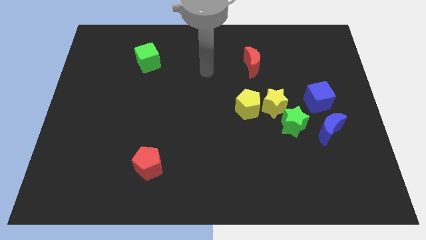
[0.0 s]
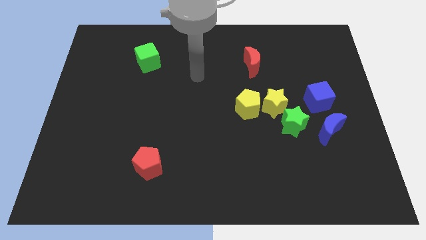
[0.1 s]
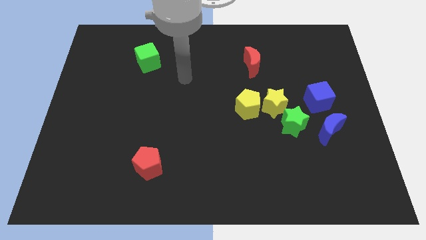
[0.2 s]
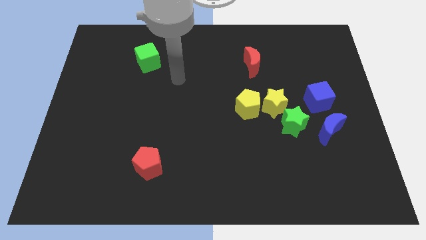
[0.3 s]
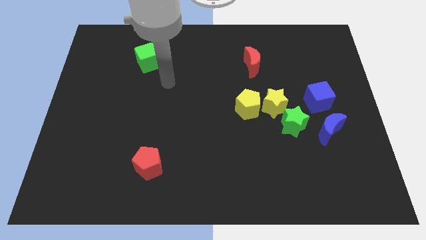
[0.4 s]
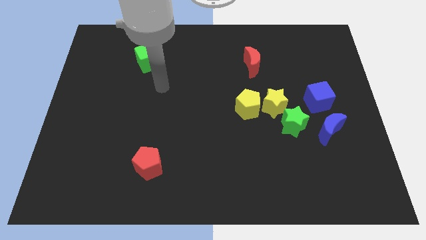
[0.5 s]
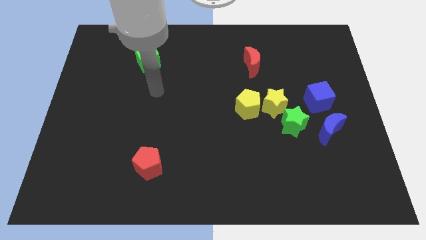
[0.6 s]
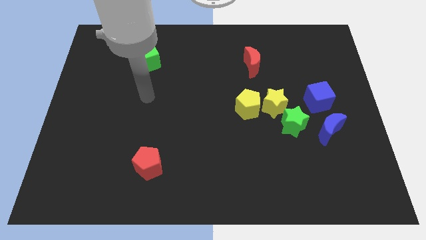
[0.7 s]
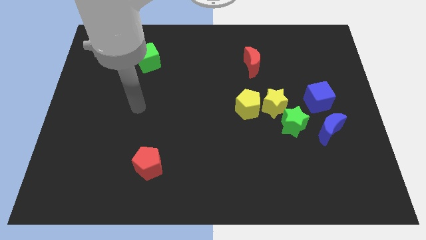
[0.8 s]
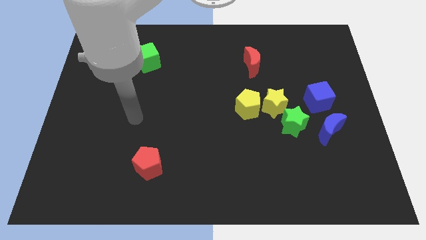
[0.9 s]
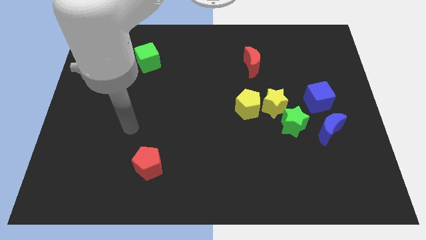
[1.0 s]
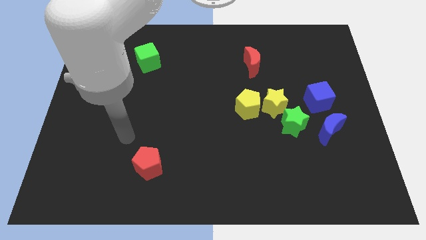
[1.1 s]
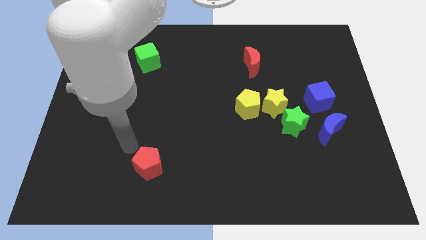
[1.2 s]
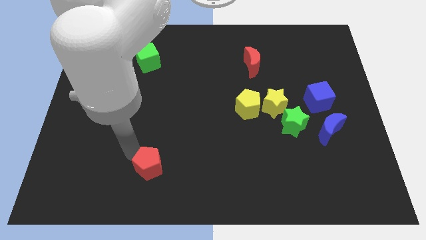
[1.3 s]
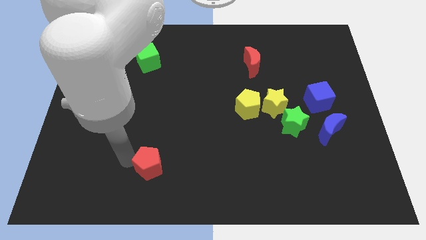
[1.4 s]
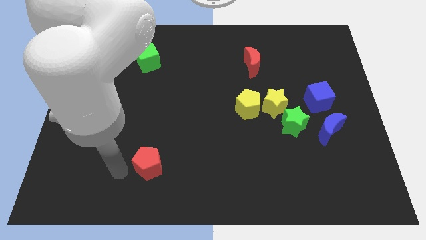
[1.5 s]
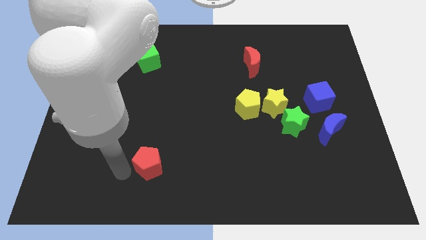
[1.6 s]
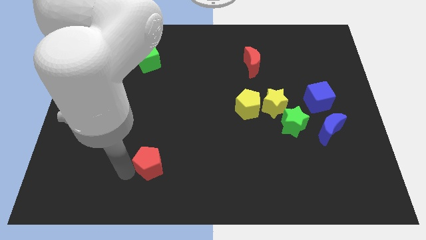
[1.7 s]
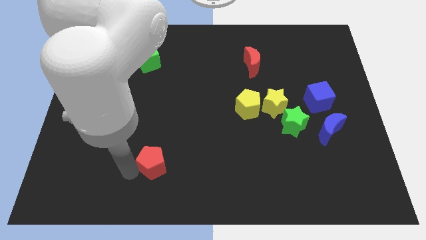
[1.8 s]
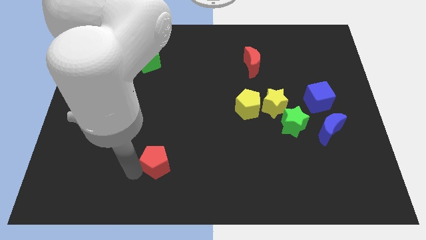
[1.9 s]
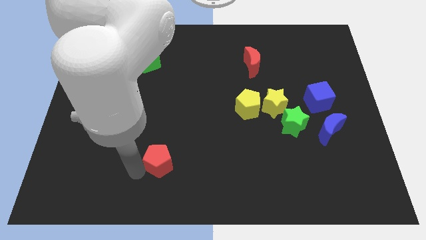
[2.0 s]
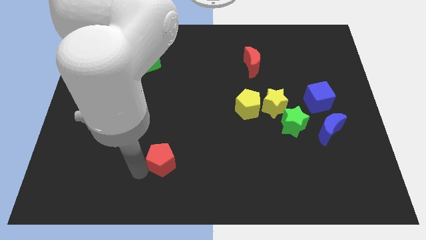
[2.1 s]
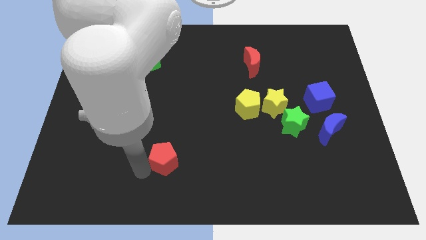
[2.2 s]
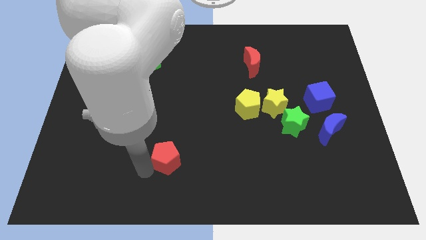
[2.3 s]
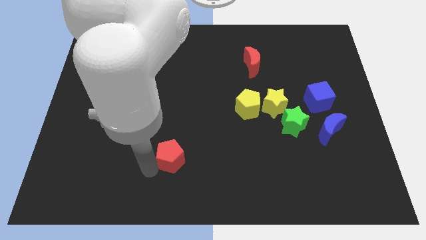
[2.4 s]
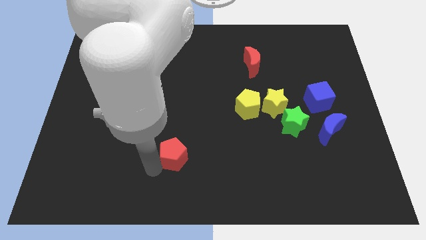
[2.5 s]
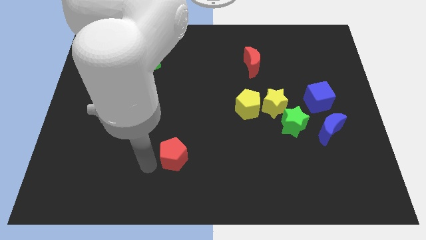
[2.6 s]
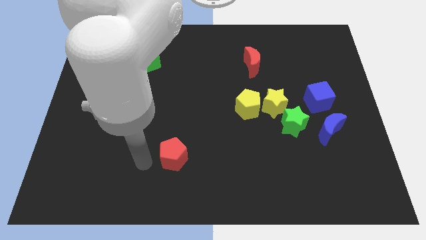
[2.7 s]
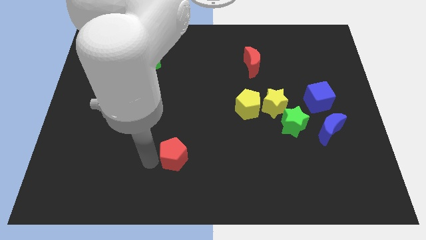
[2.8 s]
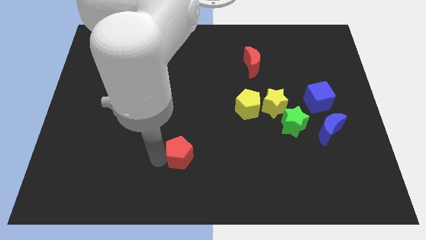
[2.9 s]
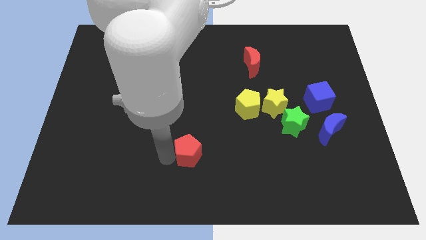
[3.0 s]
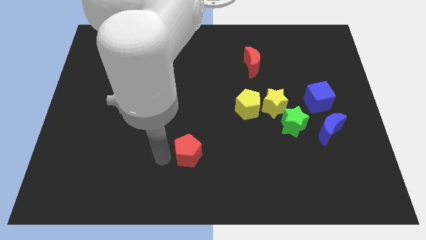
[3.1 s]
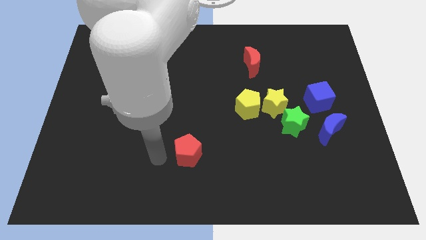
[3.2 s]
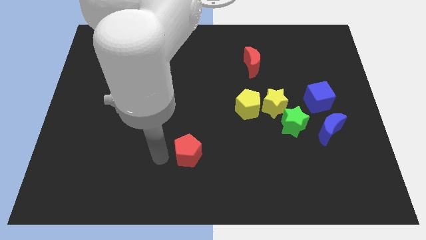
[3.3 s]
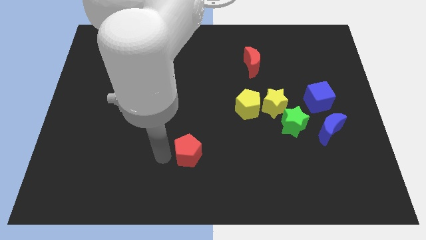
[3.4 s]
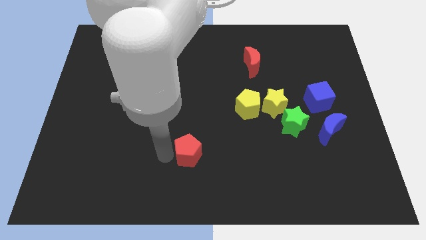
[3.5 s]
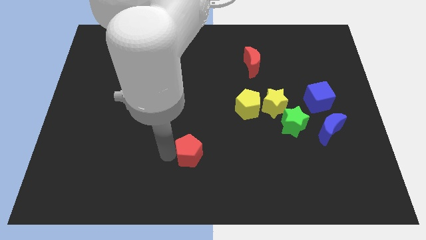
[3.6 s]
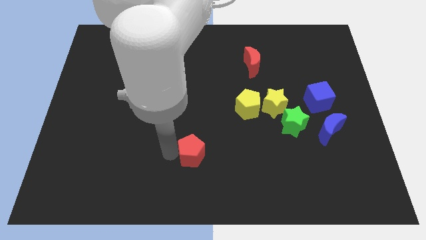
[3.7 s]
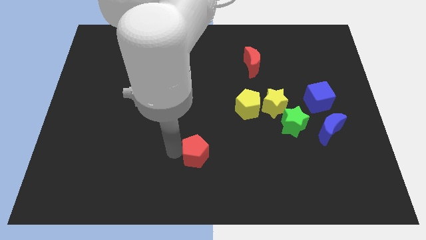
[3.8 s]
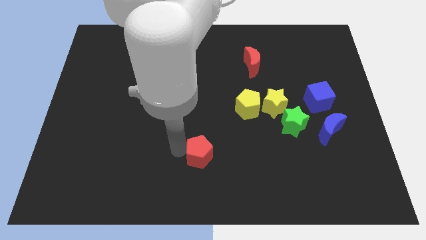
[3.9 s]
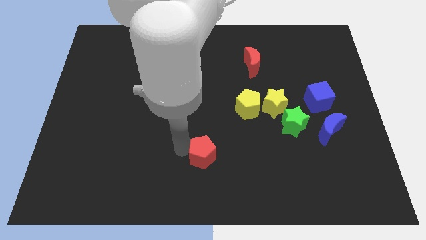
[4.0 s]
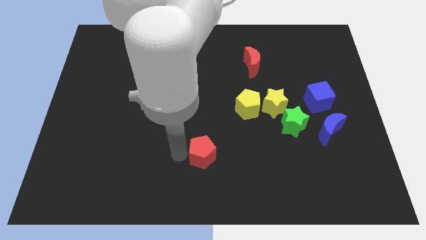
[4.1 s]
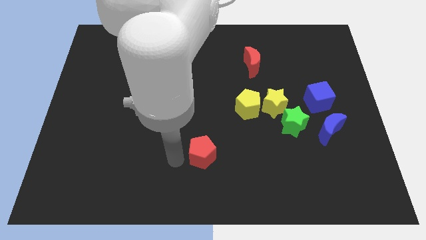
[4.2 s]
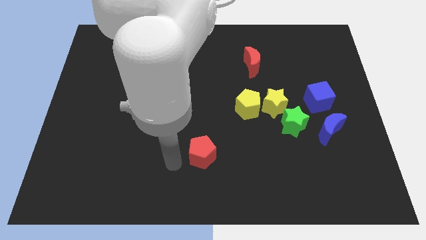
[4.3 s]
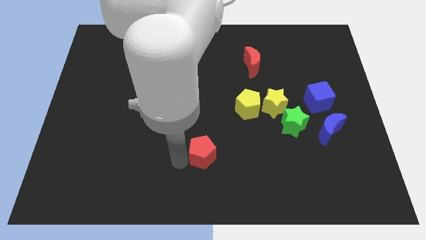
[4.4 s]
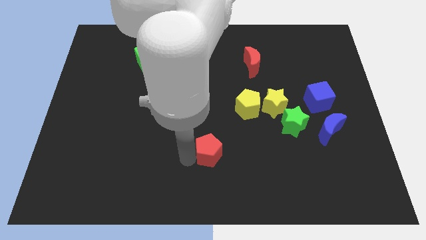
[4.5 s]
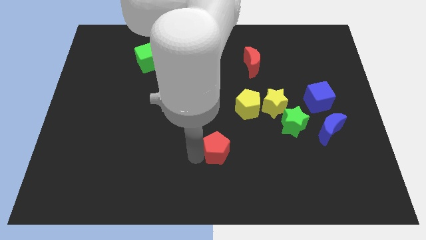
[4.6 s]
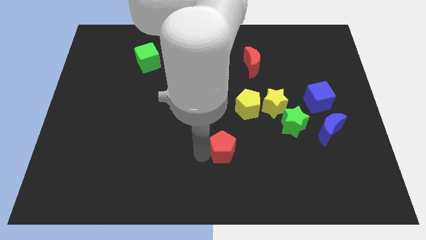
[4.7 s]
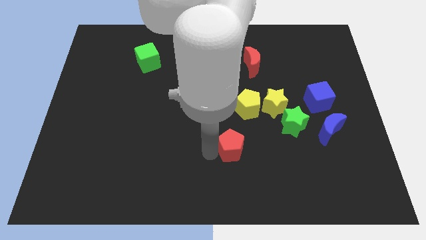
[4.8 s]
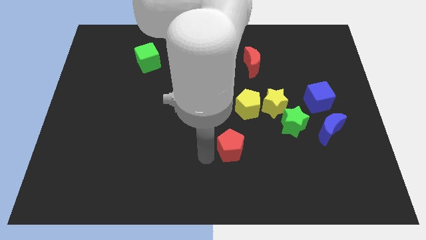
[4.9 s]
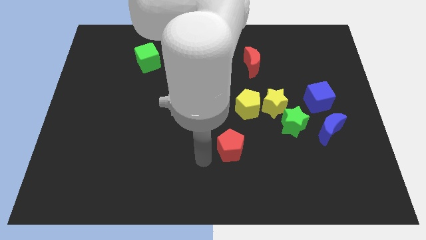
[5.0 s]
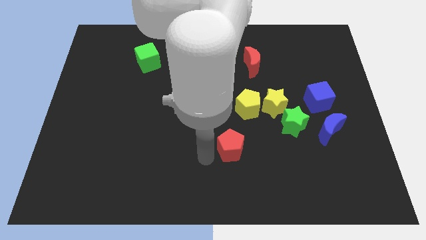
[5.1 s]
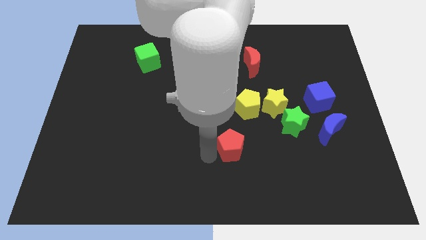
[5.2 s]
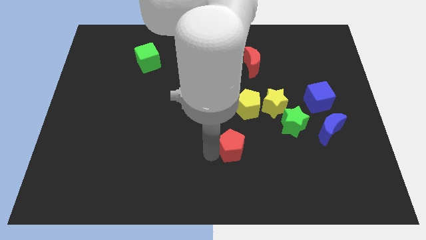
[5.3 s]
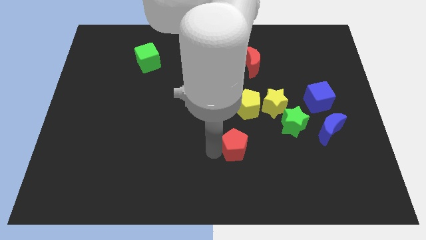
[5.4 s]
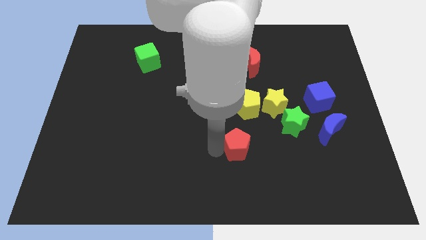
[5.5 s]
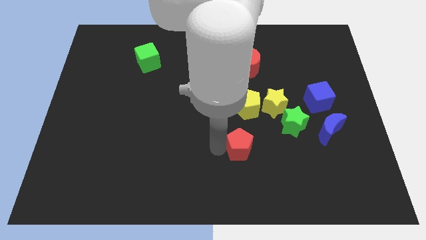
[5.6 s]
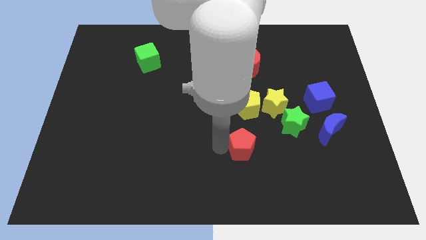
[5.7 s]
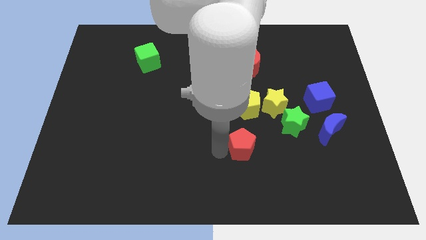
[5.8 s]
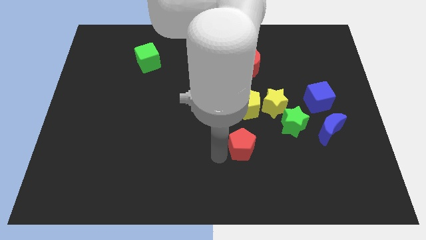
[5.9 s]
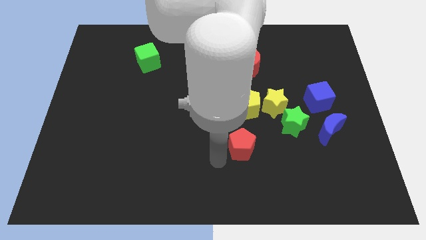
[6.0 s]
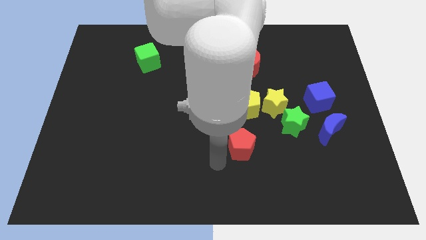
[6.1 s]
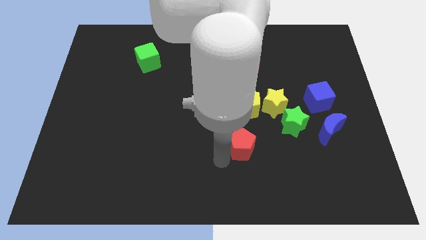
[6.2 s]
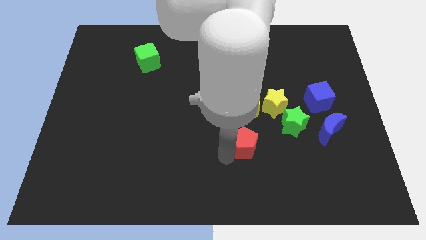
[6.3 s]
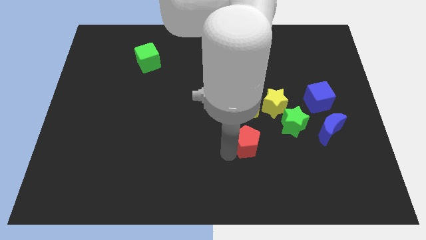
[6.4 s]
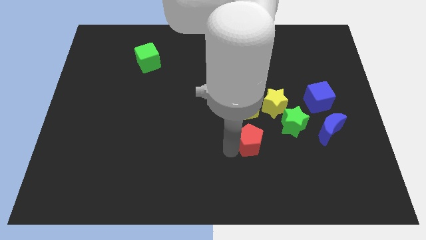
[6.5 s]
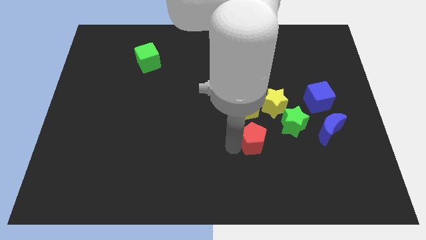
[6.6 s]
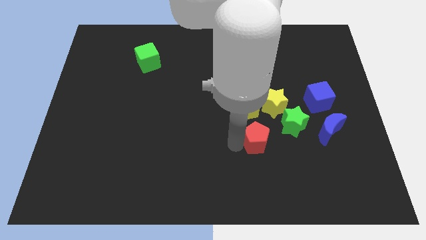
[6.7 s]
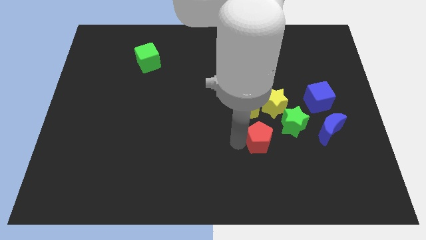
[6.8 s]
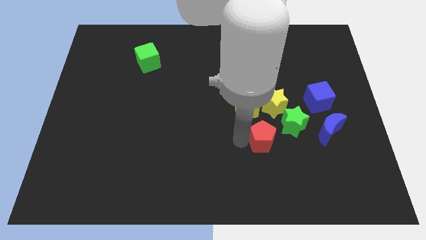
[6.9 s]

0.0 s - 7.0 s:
put the red pentagon to the left of the blue moon

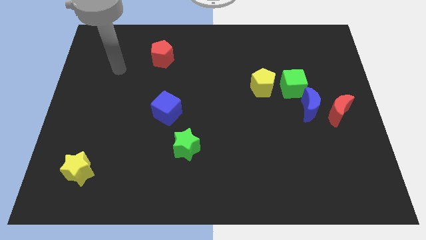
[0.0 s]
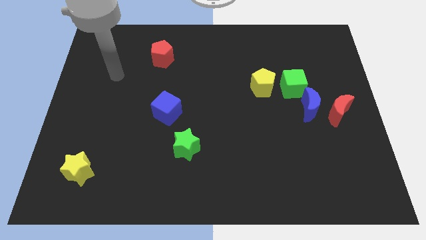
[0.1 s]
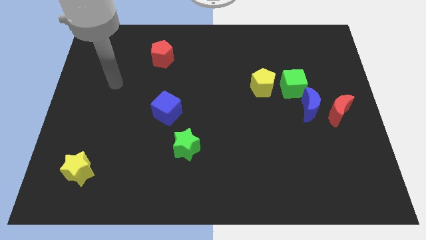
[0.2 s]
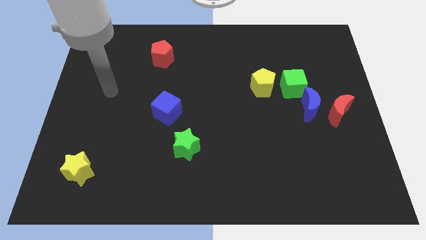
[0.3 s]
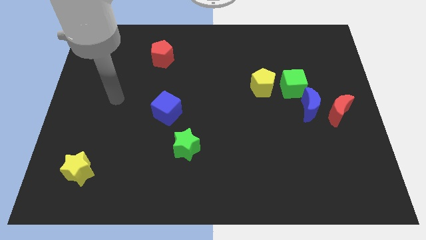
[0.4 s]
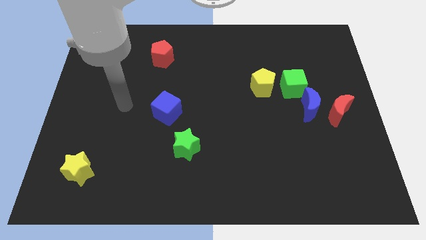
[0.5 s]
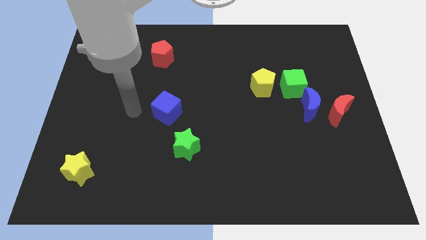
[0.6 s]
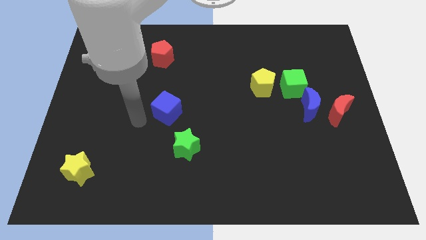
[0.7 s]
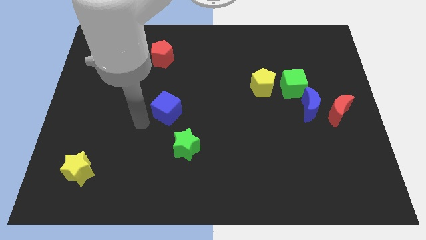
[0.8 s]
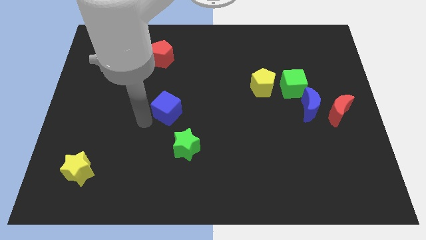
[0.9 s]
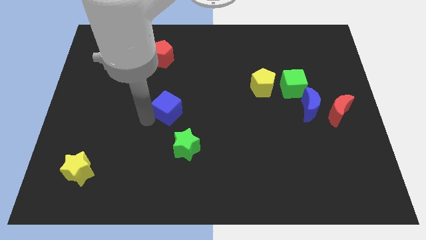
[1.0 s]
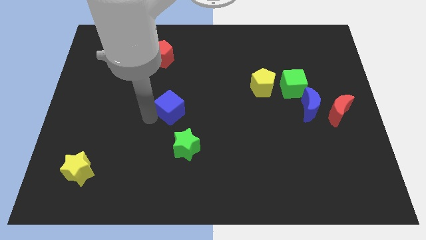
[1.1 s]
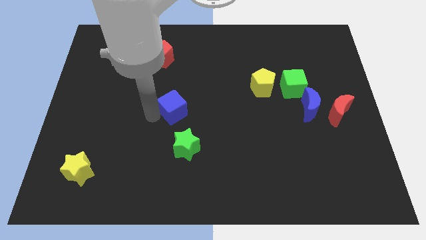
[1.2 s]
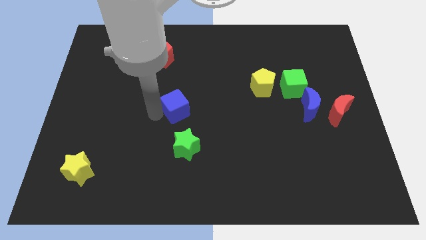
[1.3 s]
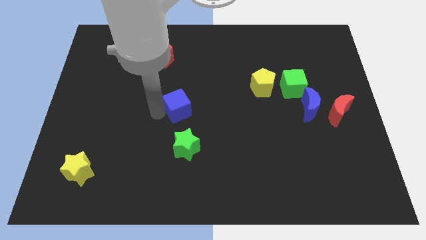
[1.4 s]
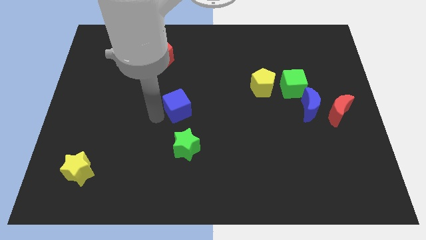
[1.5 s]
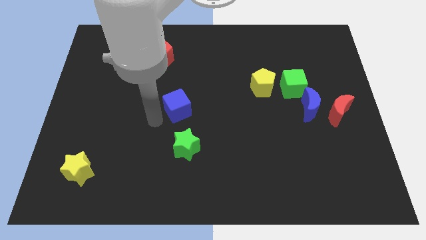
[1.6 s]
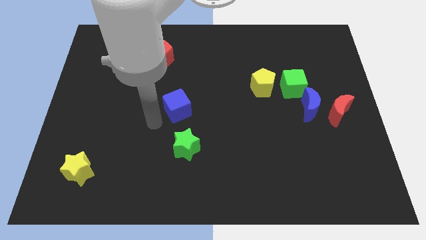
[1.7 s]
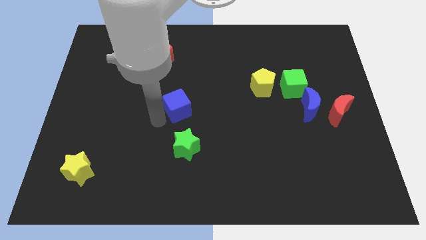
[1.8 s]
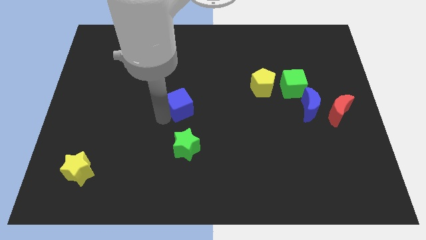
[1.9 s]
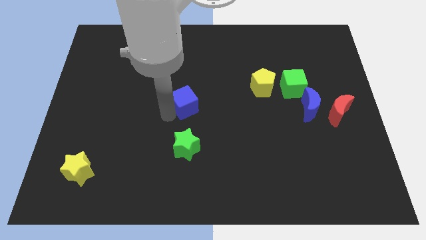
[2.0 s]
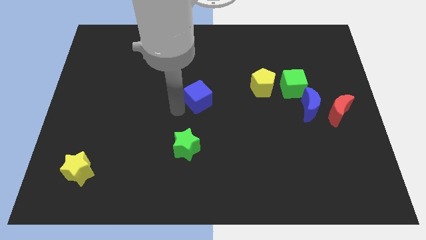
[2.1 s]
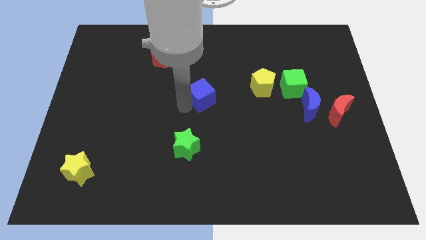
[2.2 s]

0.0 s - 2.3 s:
put the blue cube to the left side of the yellow pentagon
